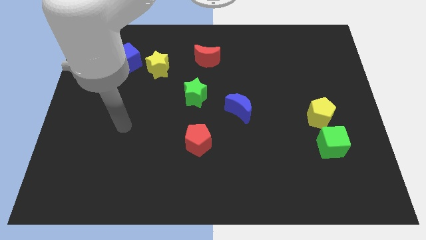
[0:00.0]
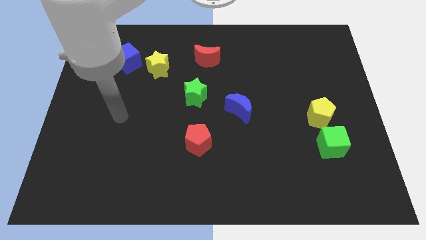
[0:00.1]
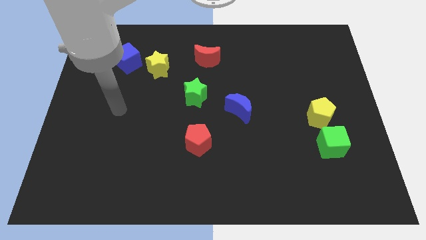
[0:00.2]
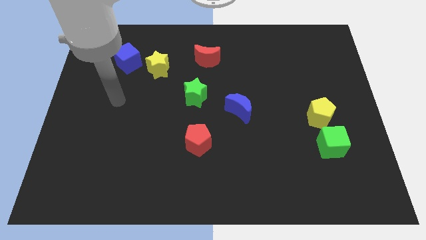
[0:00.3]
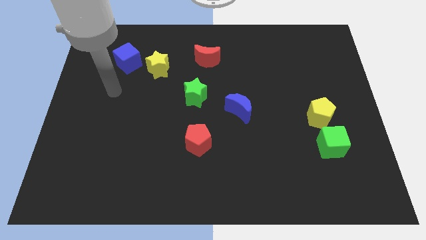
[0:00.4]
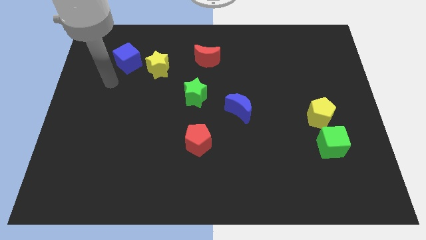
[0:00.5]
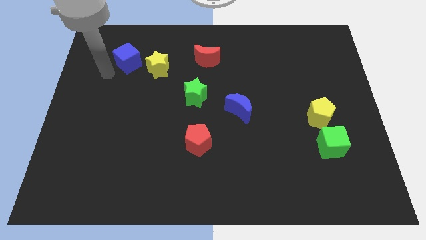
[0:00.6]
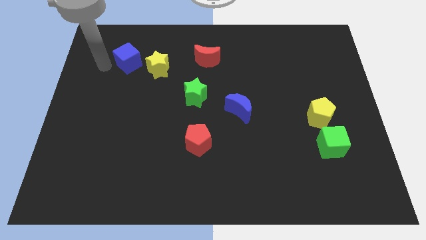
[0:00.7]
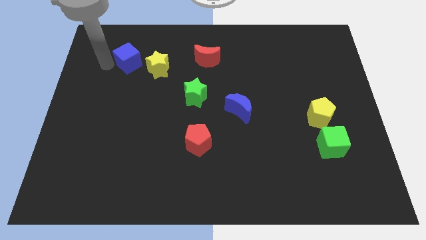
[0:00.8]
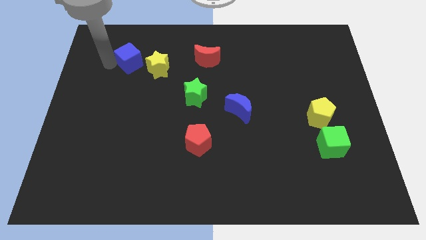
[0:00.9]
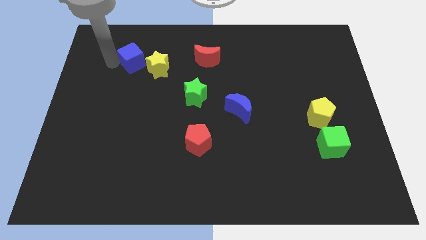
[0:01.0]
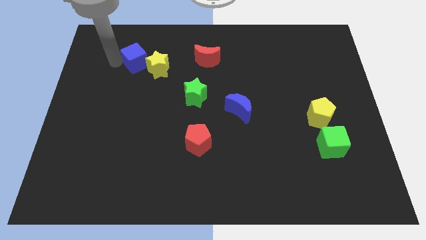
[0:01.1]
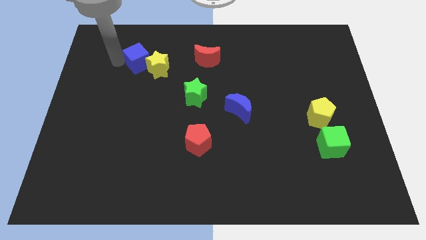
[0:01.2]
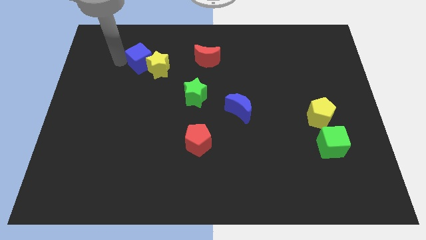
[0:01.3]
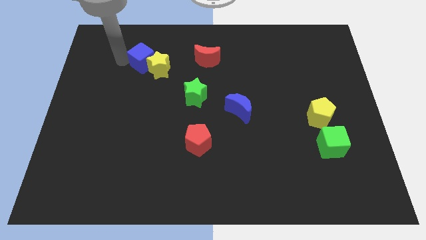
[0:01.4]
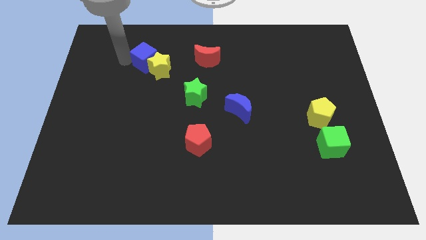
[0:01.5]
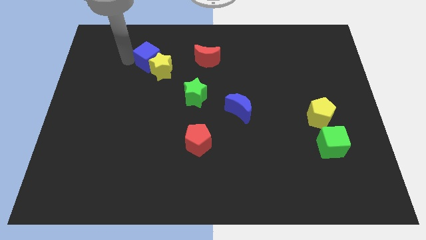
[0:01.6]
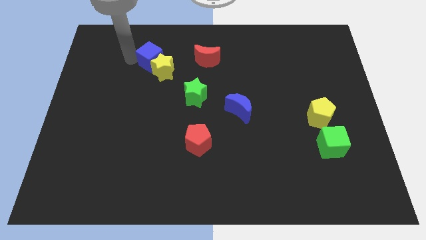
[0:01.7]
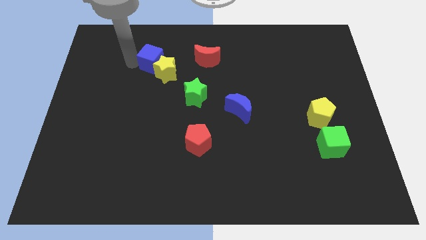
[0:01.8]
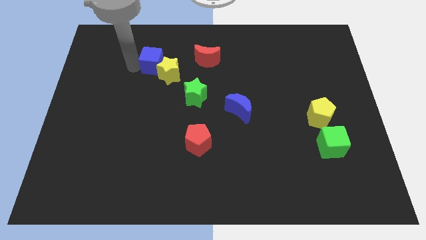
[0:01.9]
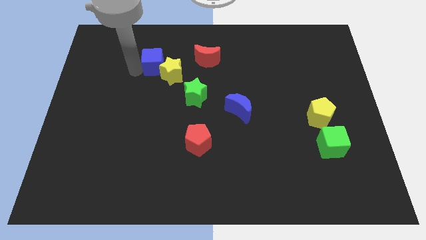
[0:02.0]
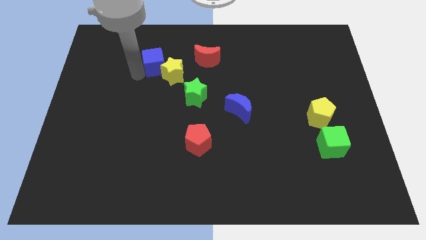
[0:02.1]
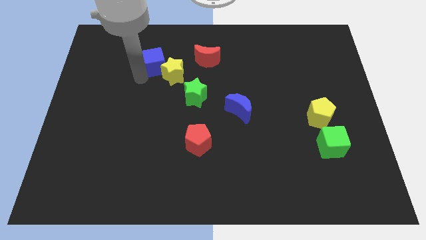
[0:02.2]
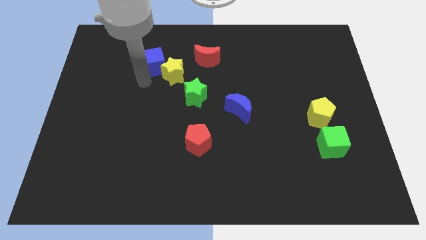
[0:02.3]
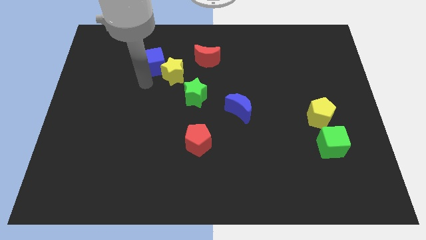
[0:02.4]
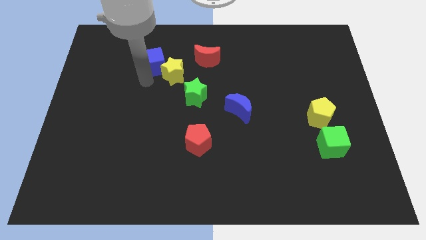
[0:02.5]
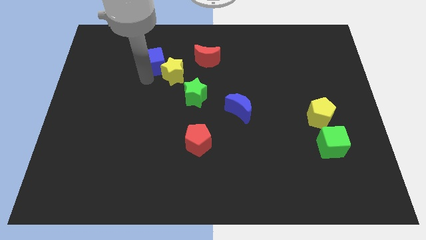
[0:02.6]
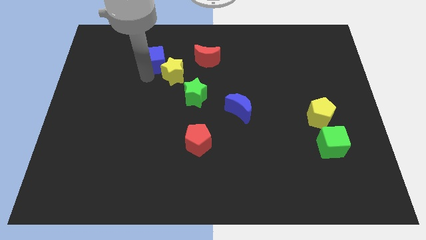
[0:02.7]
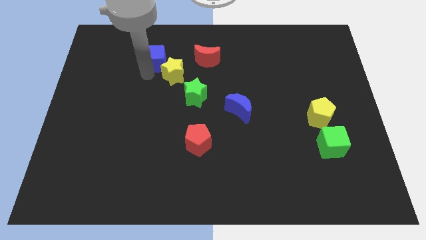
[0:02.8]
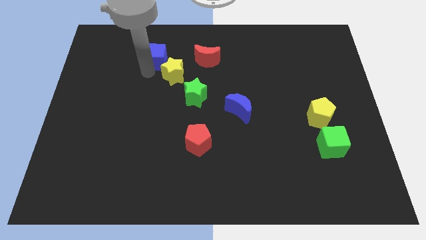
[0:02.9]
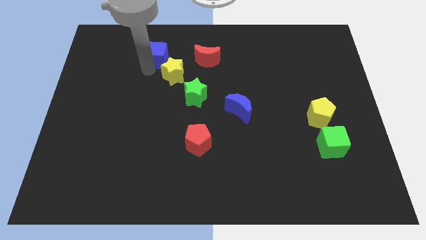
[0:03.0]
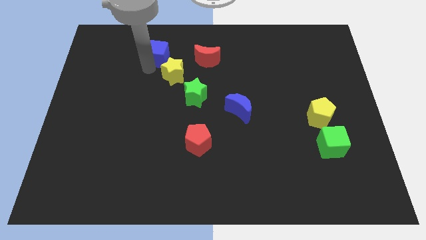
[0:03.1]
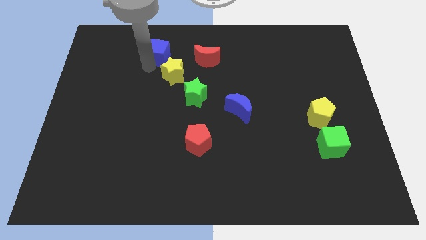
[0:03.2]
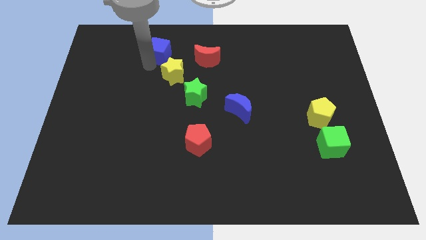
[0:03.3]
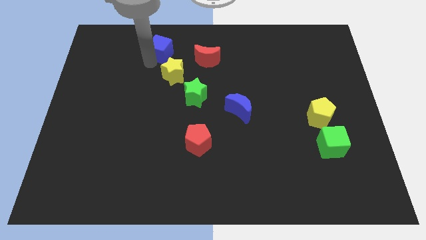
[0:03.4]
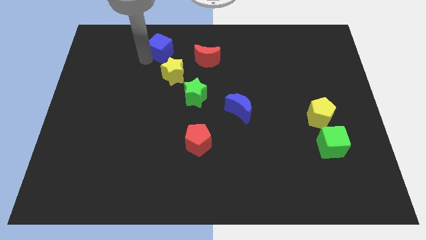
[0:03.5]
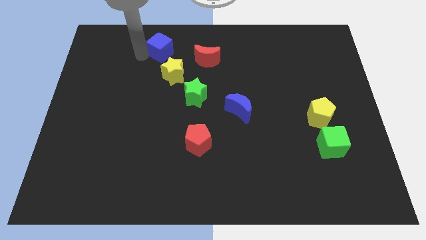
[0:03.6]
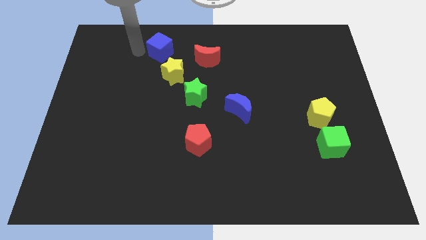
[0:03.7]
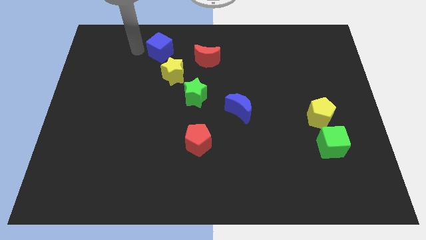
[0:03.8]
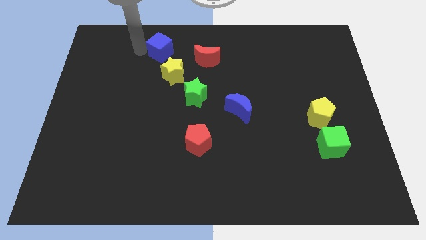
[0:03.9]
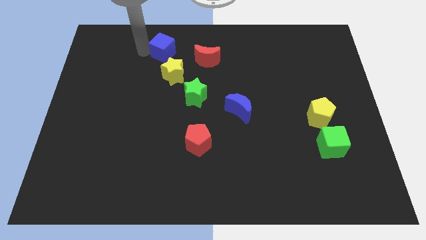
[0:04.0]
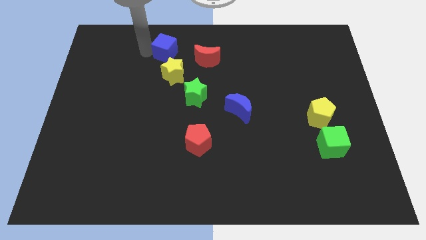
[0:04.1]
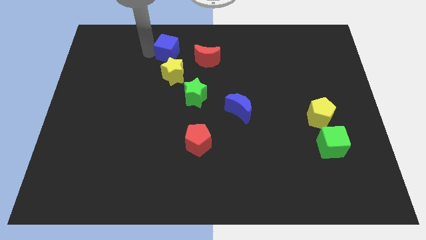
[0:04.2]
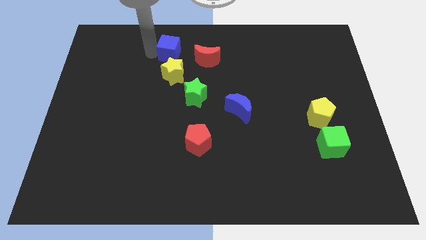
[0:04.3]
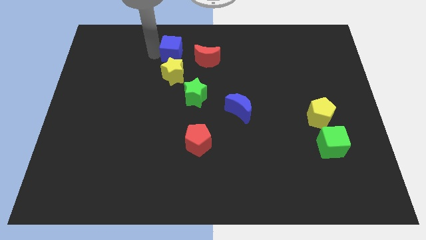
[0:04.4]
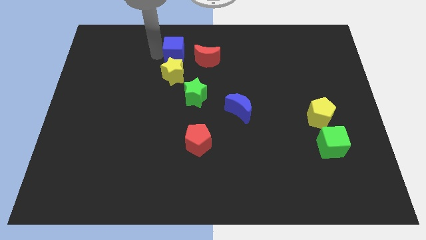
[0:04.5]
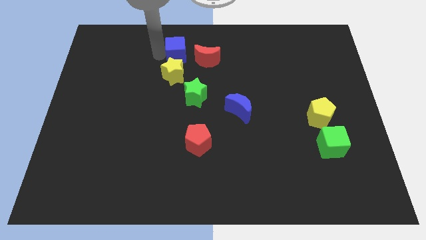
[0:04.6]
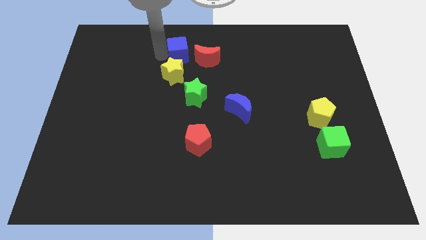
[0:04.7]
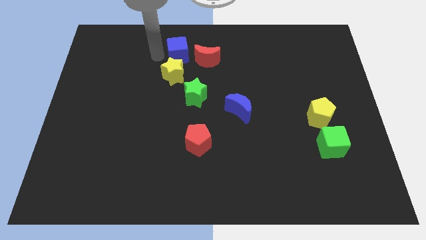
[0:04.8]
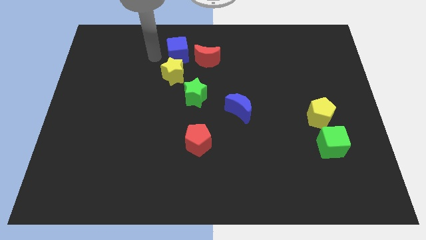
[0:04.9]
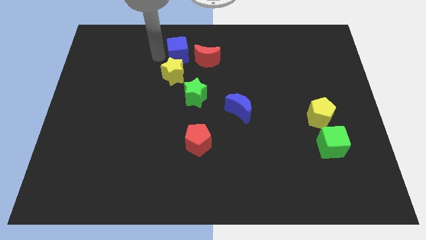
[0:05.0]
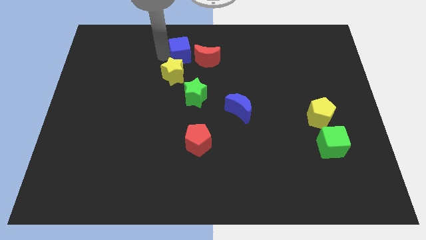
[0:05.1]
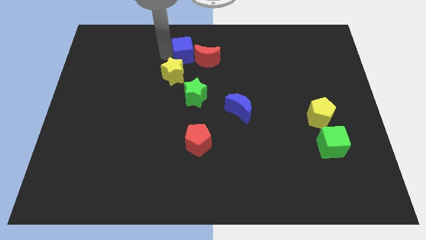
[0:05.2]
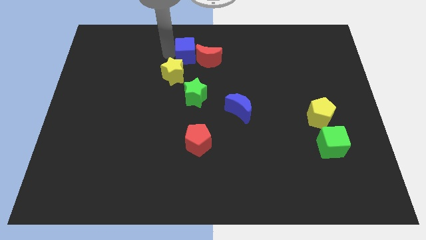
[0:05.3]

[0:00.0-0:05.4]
put the blue cube next to the red moon

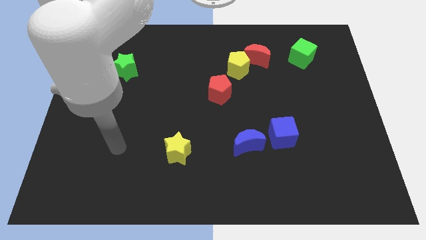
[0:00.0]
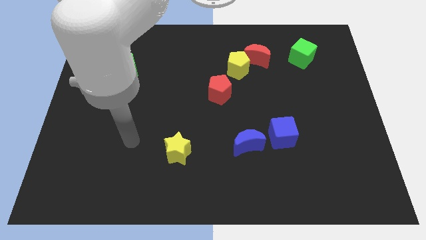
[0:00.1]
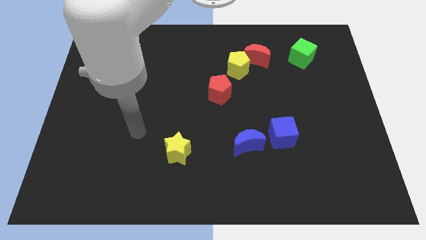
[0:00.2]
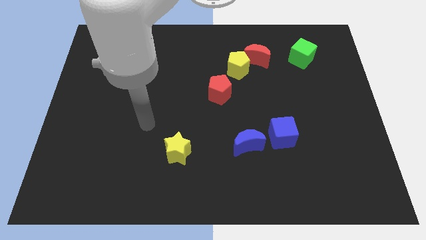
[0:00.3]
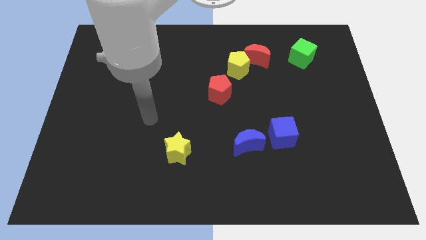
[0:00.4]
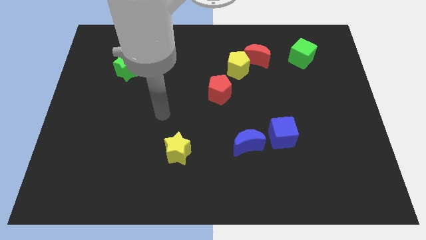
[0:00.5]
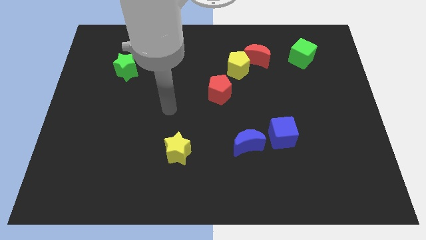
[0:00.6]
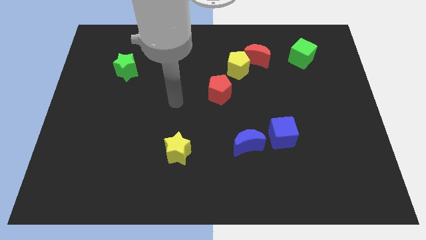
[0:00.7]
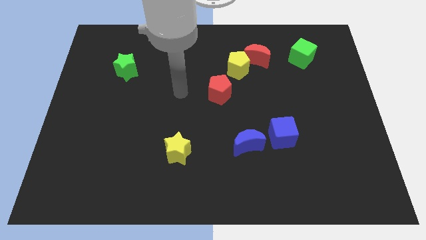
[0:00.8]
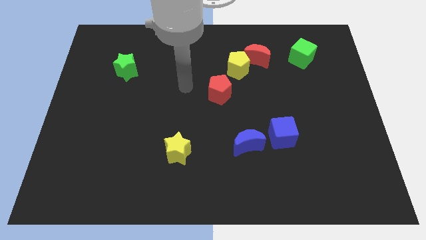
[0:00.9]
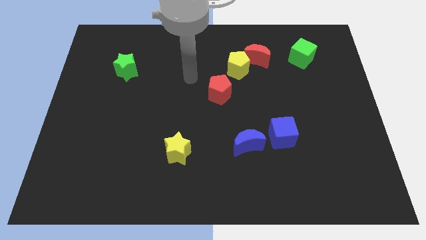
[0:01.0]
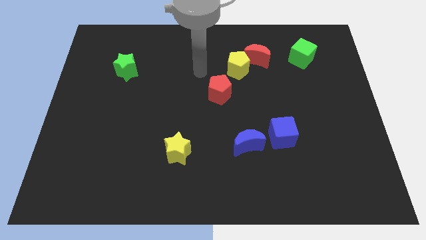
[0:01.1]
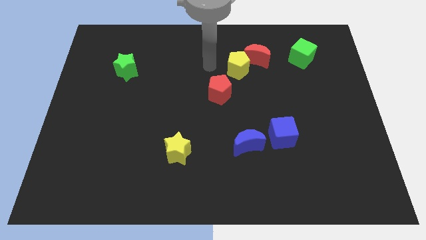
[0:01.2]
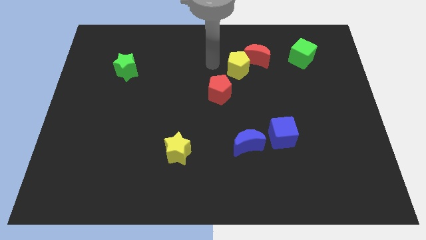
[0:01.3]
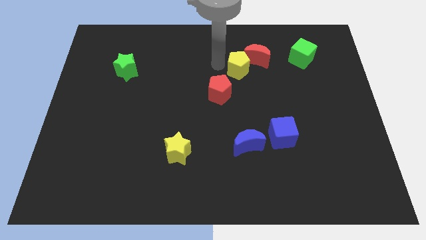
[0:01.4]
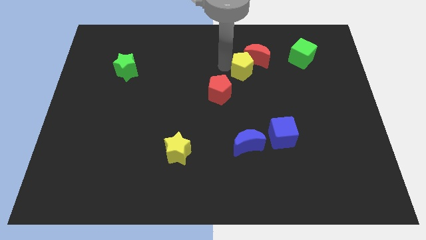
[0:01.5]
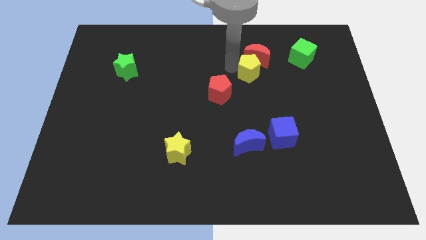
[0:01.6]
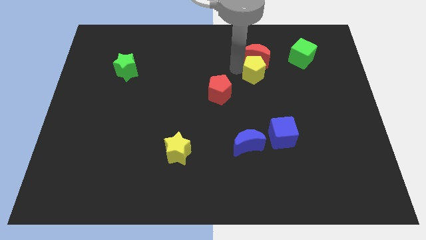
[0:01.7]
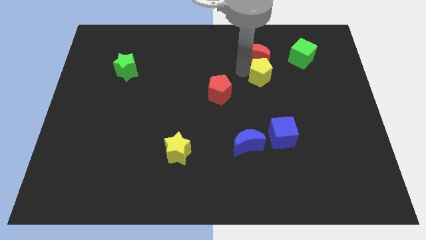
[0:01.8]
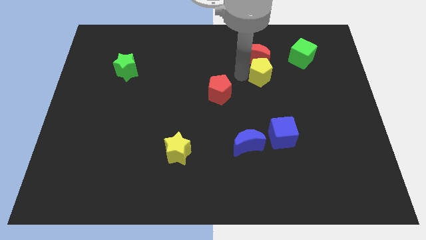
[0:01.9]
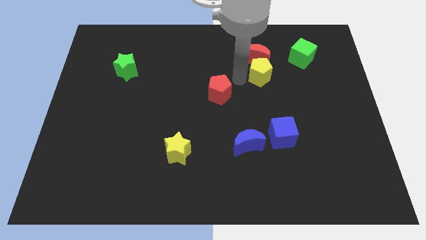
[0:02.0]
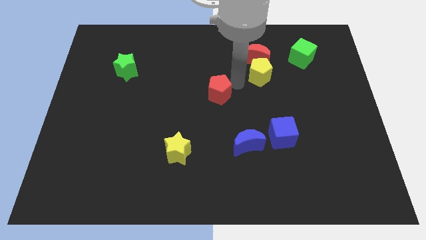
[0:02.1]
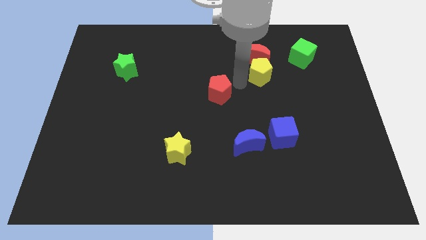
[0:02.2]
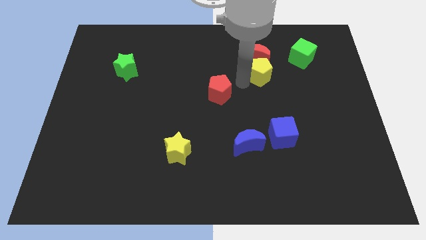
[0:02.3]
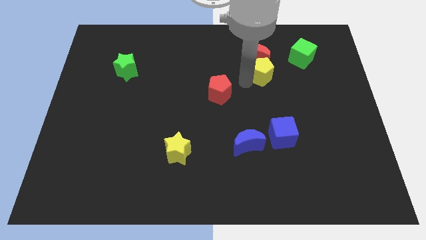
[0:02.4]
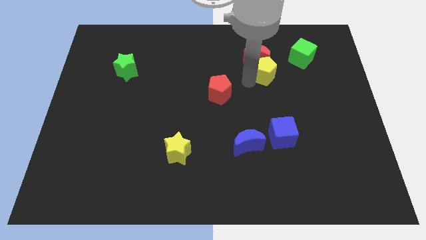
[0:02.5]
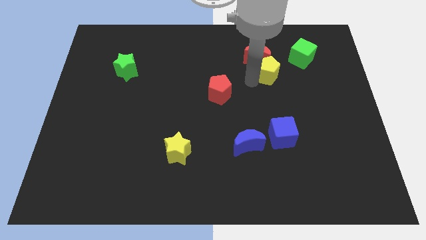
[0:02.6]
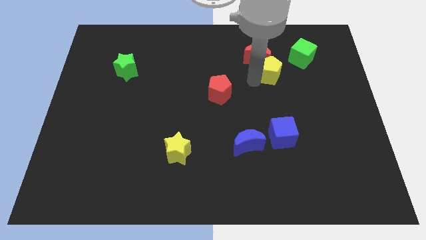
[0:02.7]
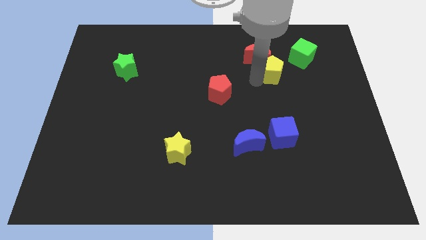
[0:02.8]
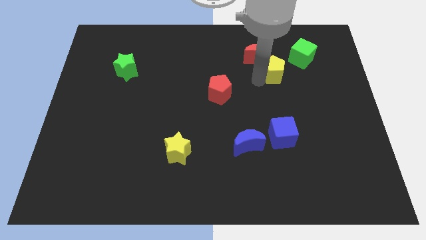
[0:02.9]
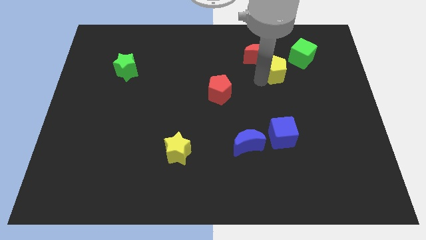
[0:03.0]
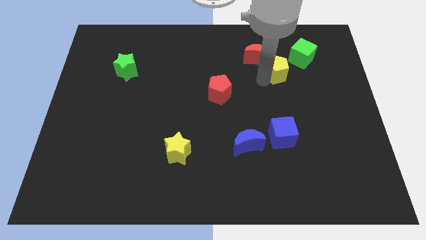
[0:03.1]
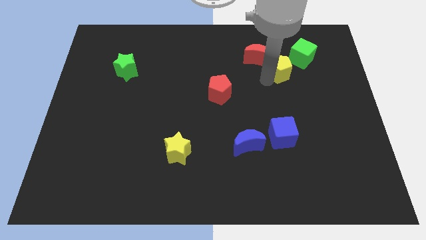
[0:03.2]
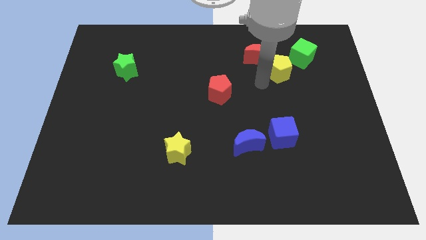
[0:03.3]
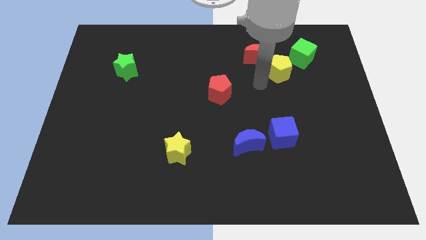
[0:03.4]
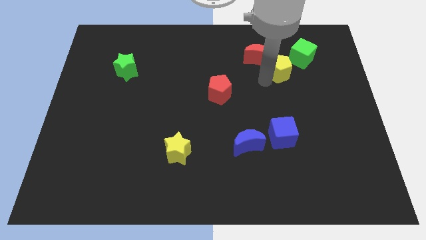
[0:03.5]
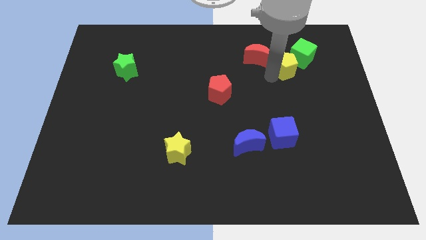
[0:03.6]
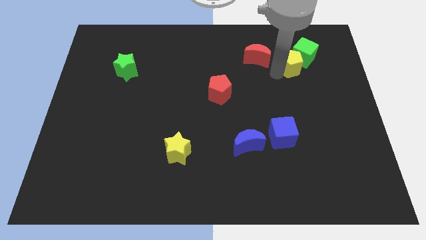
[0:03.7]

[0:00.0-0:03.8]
slide the yellow pentagon close to the green cube
